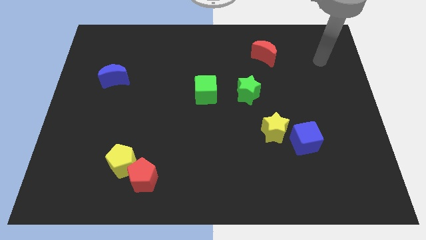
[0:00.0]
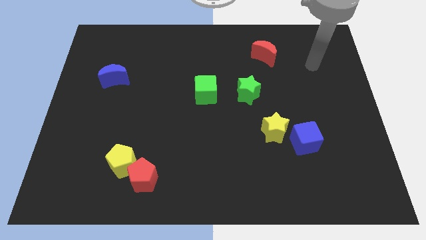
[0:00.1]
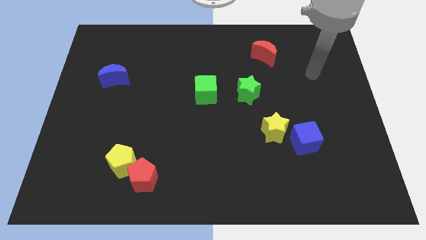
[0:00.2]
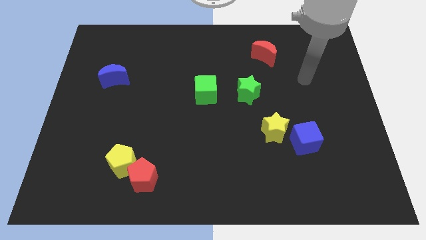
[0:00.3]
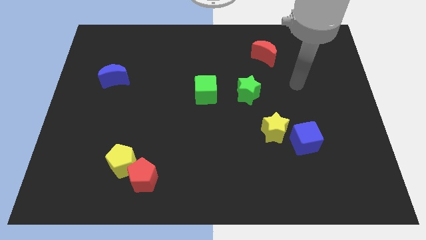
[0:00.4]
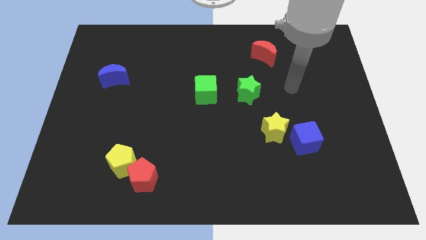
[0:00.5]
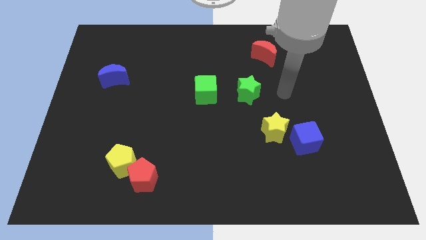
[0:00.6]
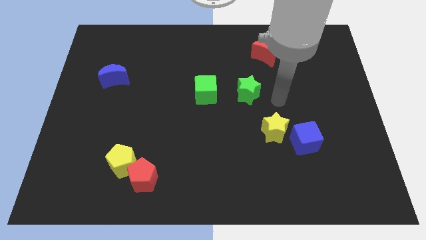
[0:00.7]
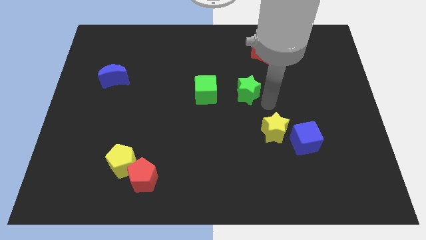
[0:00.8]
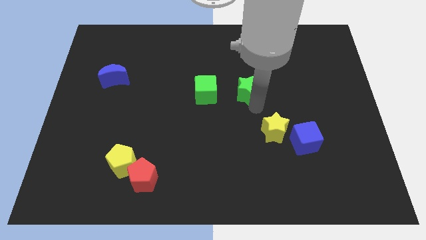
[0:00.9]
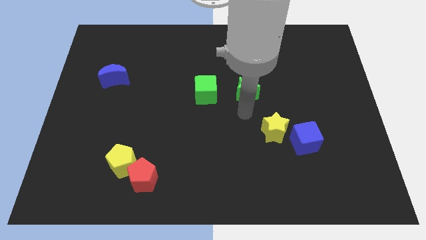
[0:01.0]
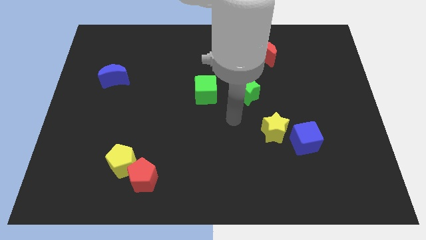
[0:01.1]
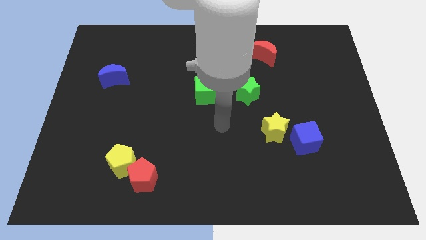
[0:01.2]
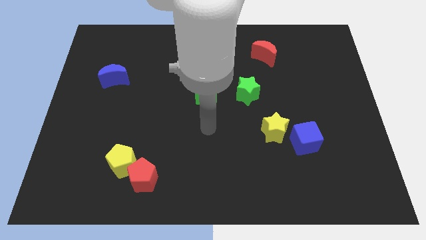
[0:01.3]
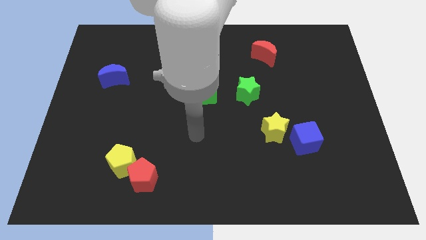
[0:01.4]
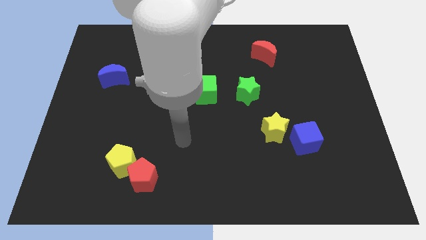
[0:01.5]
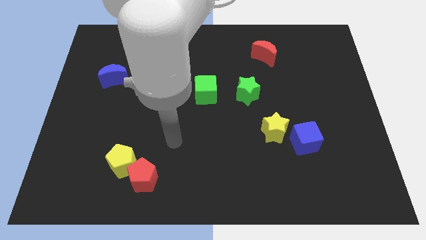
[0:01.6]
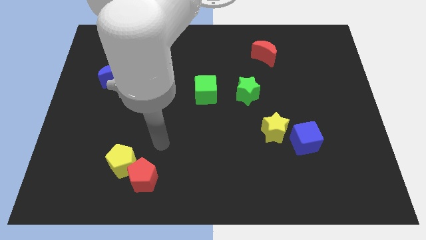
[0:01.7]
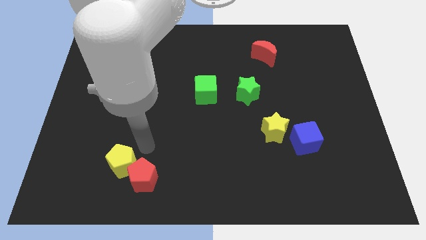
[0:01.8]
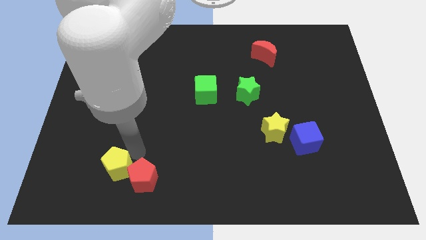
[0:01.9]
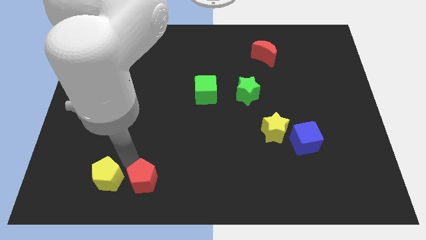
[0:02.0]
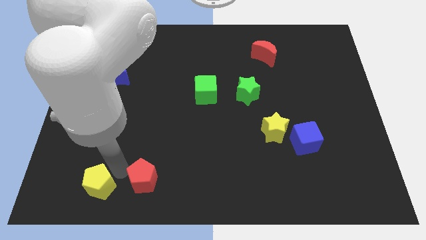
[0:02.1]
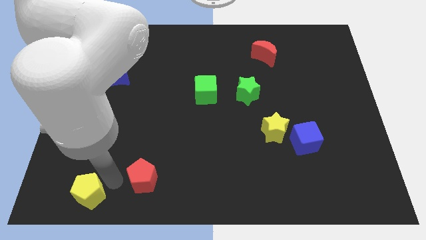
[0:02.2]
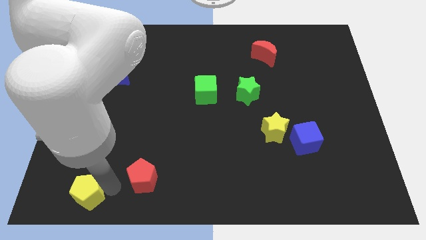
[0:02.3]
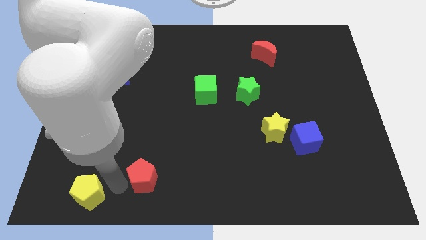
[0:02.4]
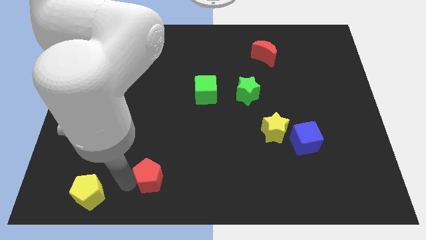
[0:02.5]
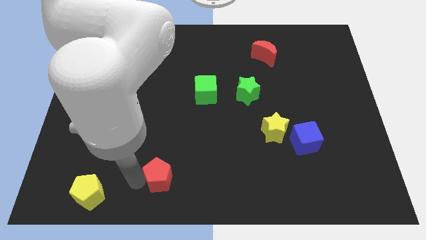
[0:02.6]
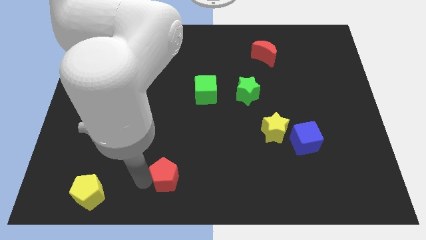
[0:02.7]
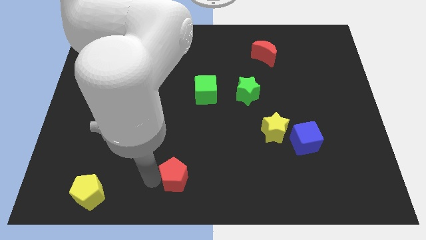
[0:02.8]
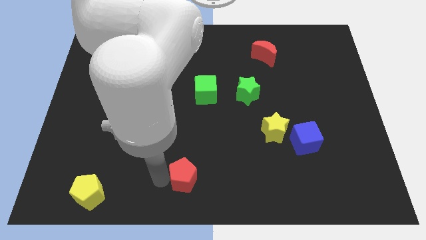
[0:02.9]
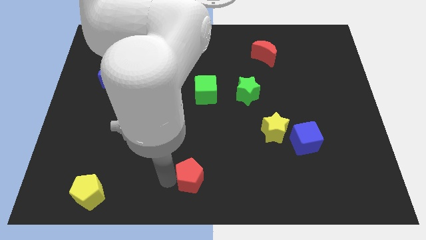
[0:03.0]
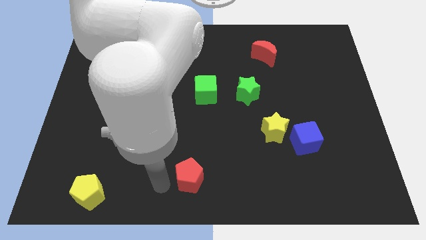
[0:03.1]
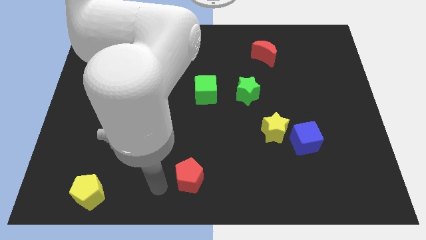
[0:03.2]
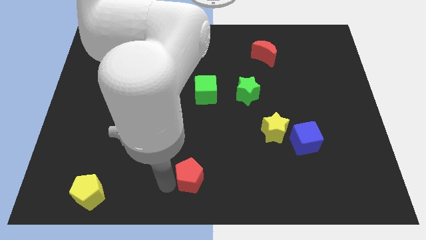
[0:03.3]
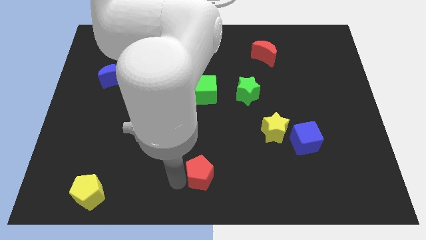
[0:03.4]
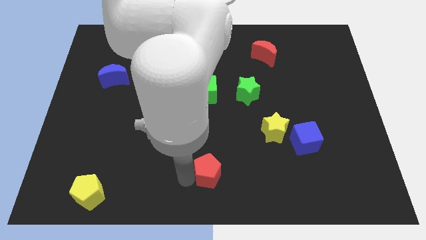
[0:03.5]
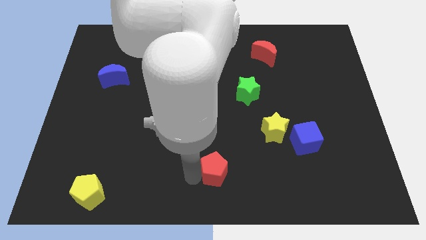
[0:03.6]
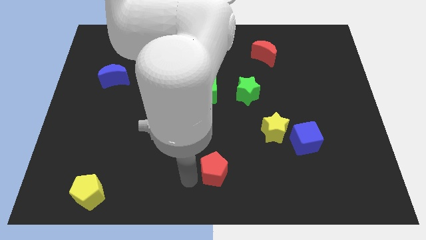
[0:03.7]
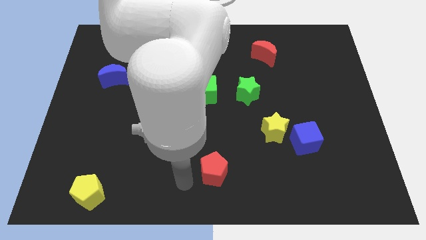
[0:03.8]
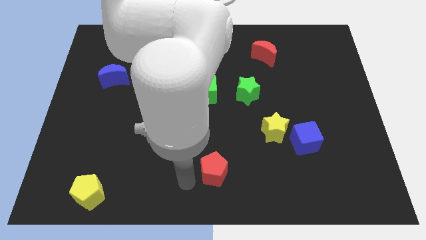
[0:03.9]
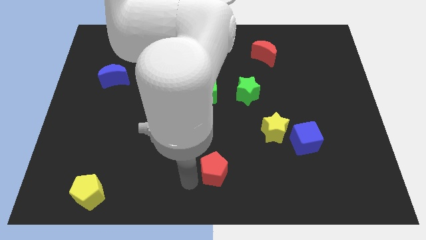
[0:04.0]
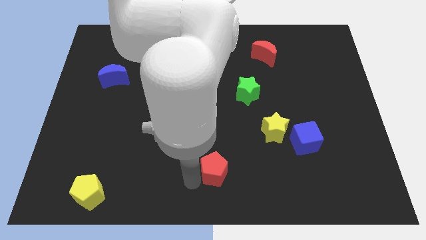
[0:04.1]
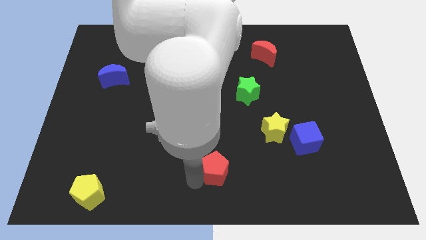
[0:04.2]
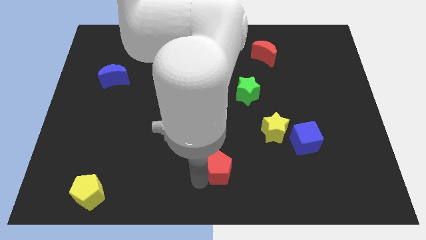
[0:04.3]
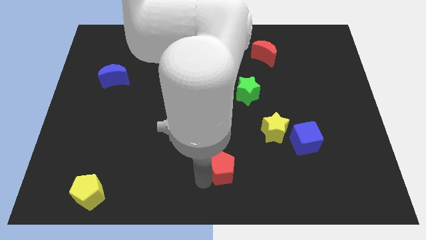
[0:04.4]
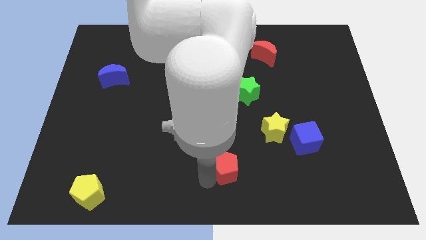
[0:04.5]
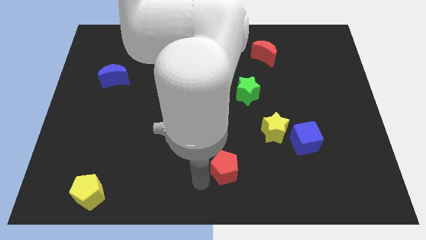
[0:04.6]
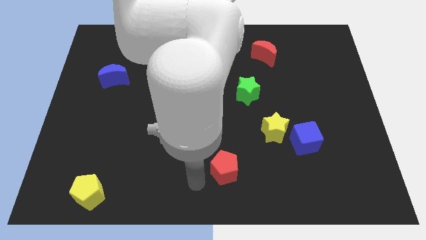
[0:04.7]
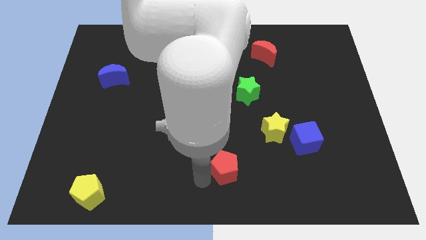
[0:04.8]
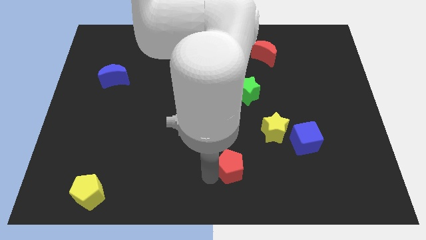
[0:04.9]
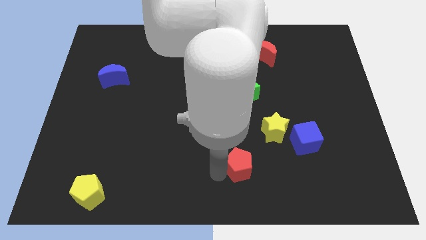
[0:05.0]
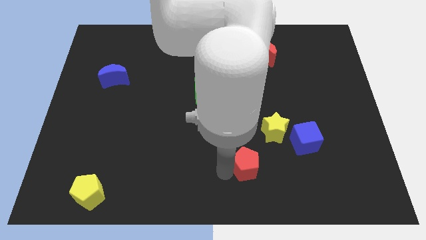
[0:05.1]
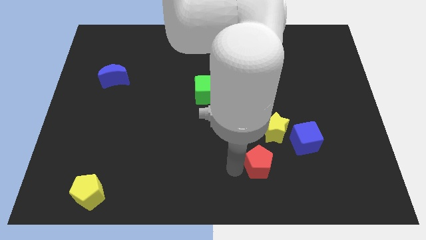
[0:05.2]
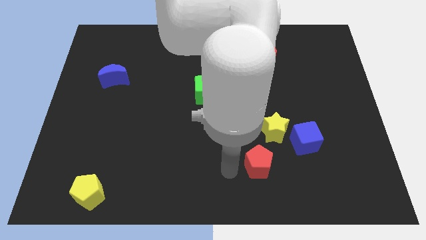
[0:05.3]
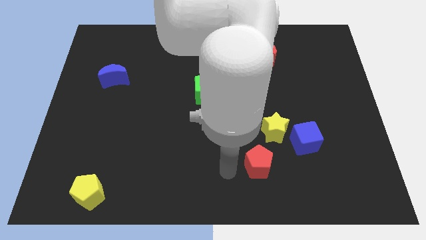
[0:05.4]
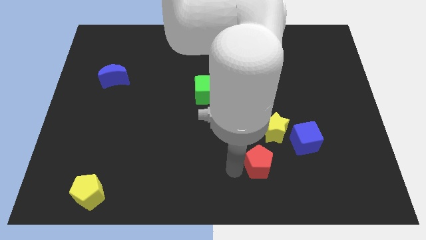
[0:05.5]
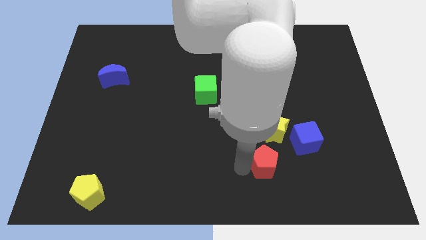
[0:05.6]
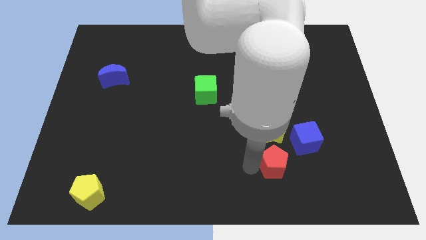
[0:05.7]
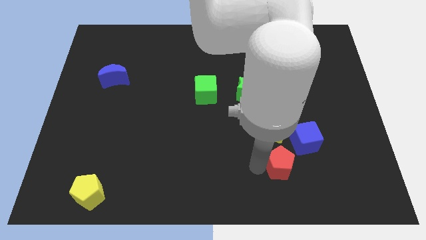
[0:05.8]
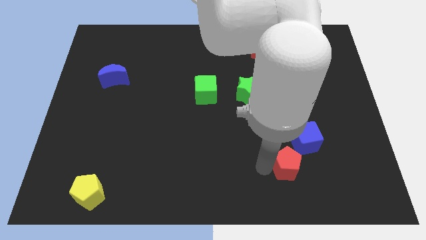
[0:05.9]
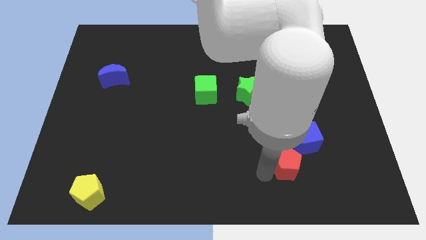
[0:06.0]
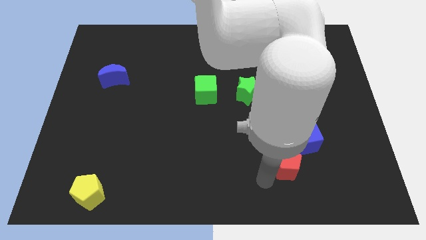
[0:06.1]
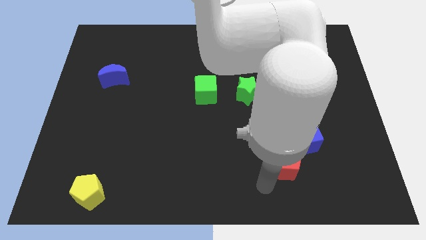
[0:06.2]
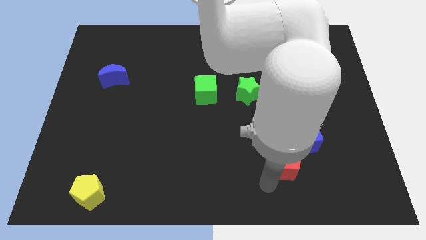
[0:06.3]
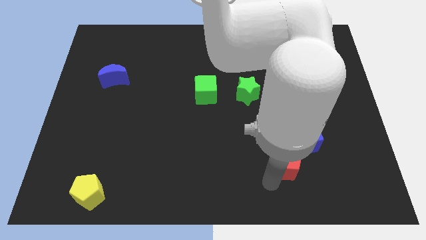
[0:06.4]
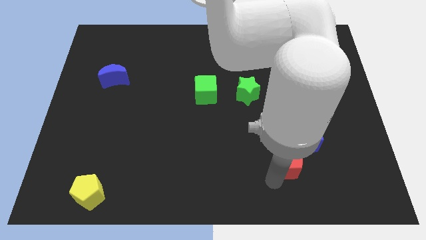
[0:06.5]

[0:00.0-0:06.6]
put the red pentagon to the bottom right of the yellow star
